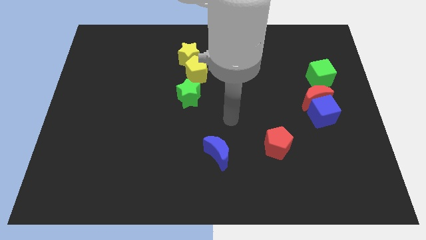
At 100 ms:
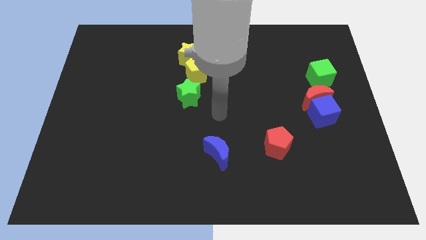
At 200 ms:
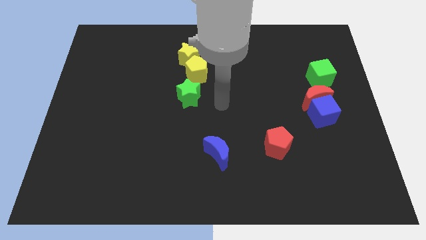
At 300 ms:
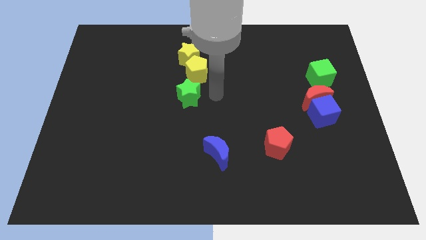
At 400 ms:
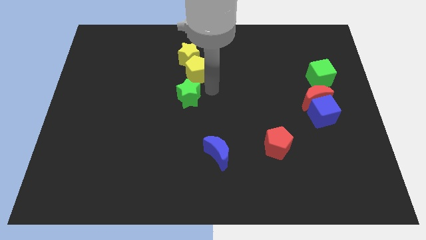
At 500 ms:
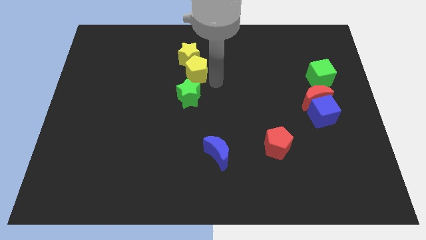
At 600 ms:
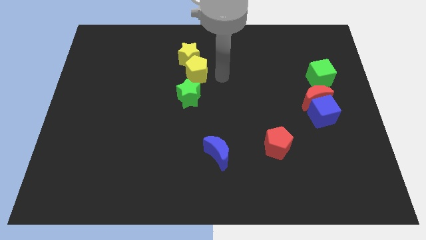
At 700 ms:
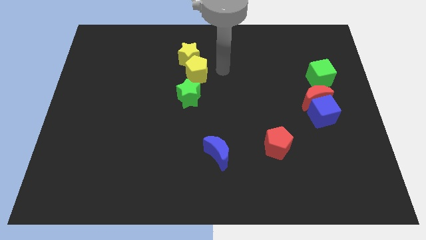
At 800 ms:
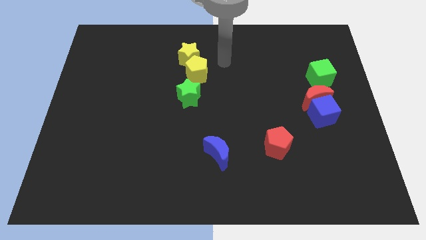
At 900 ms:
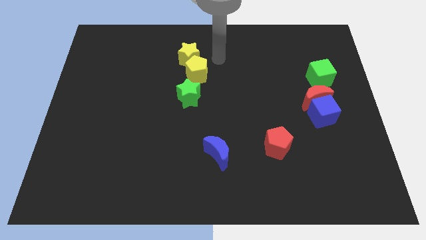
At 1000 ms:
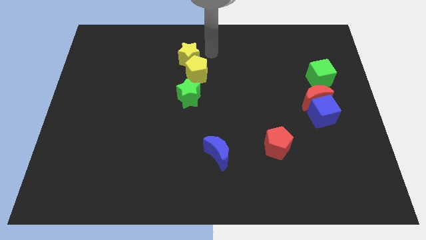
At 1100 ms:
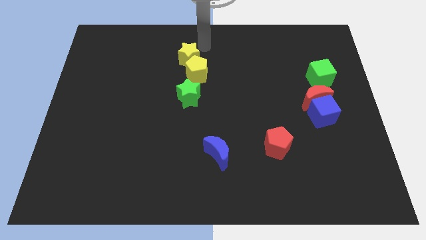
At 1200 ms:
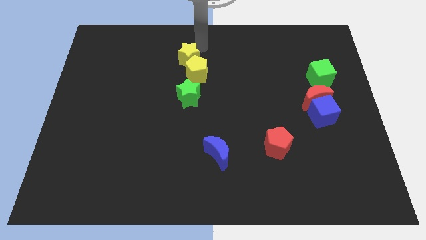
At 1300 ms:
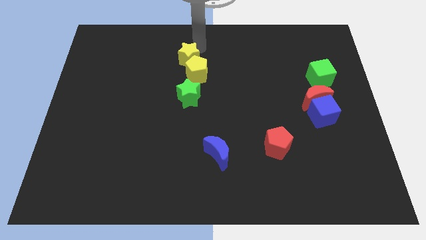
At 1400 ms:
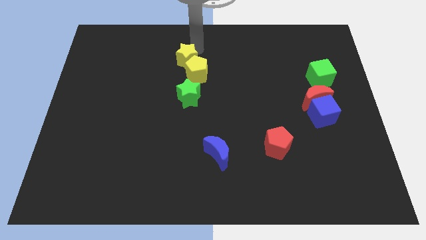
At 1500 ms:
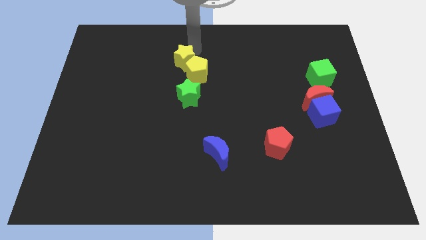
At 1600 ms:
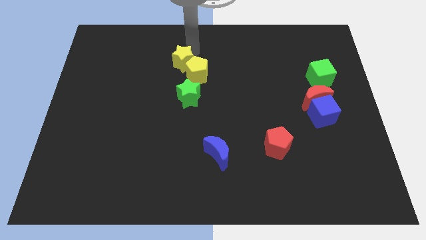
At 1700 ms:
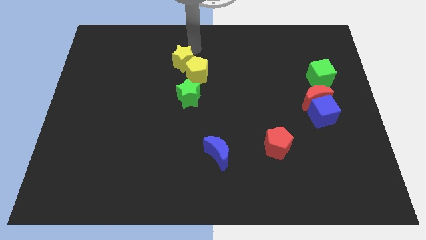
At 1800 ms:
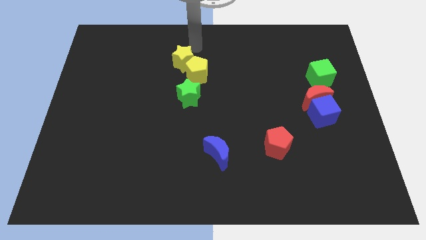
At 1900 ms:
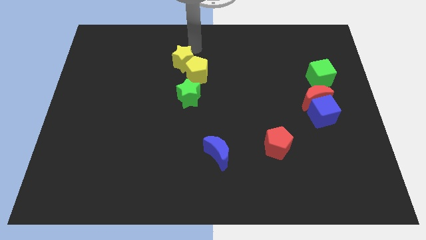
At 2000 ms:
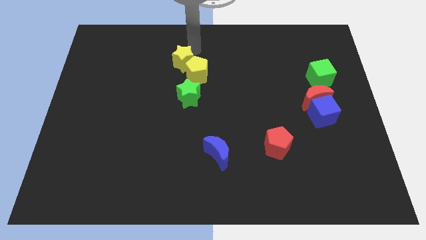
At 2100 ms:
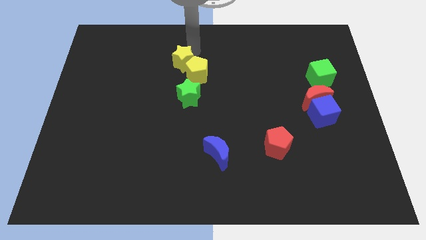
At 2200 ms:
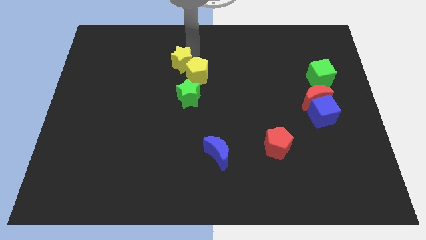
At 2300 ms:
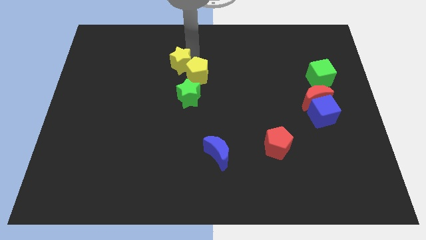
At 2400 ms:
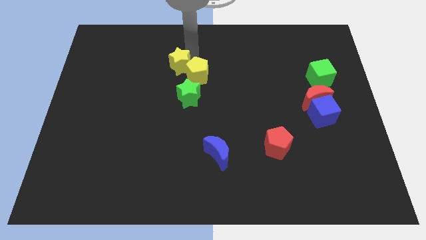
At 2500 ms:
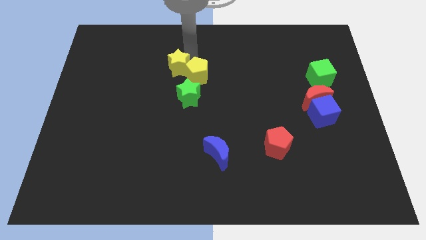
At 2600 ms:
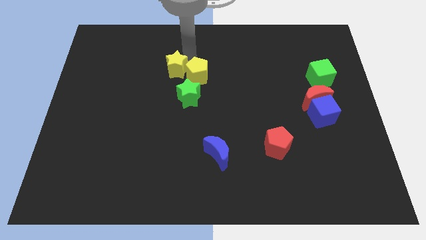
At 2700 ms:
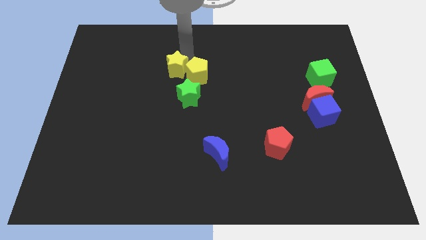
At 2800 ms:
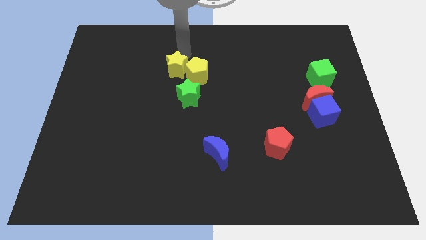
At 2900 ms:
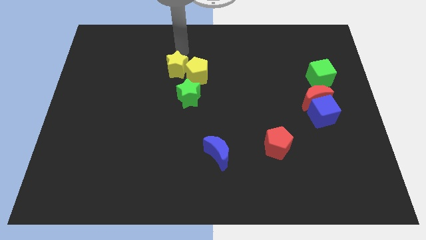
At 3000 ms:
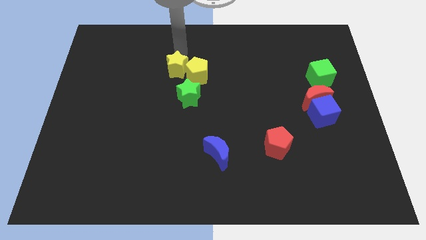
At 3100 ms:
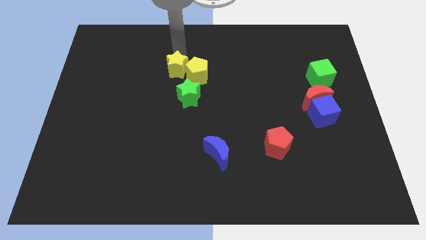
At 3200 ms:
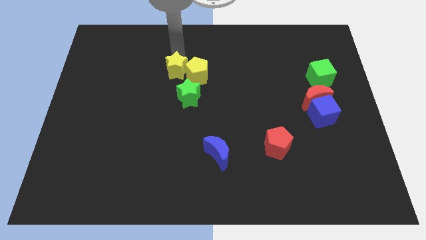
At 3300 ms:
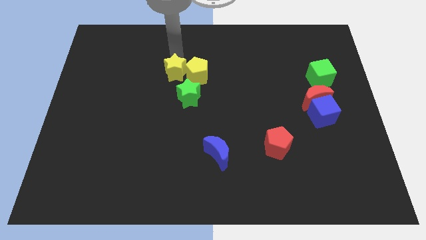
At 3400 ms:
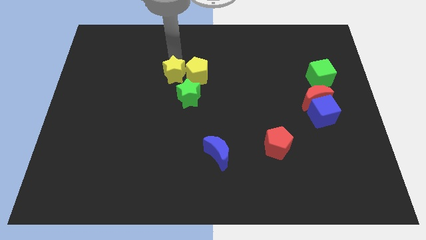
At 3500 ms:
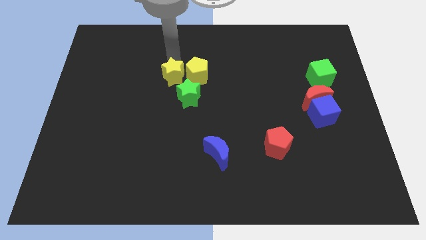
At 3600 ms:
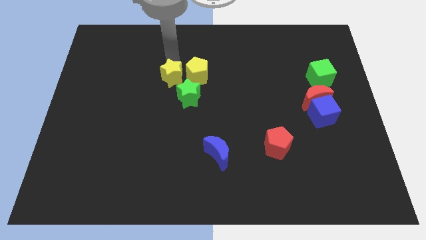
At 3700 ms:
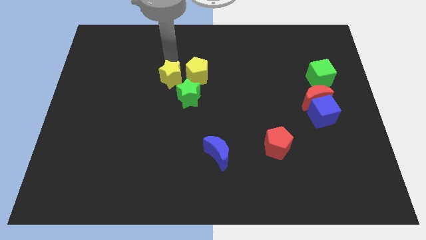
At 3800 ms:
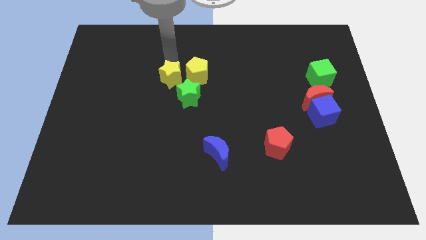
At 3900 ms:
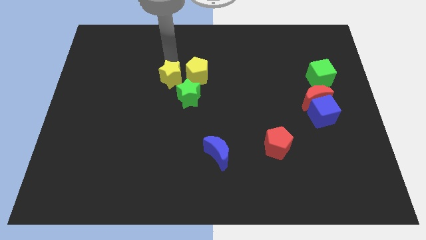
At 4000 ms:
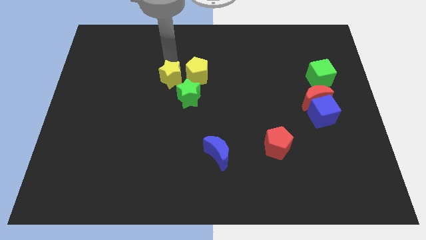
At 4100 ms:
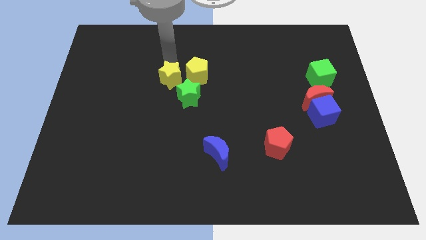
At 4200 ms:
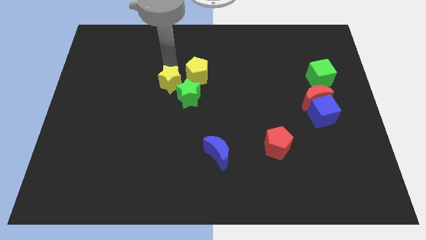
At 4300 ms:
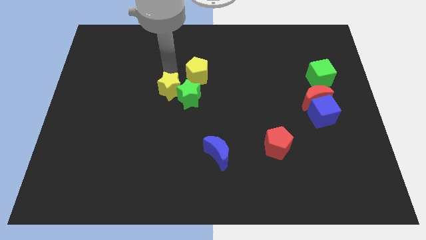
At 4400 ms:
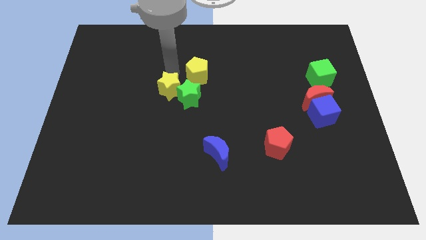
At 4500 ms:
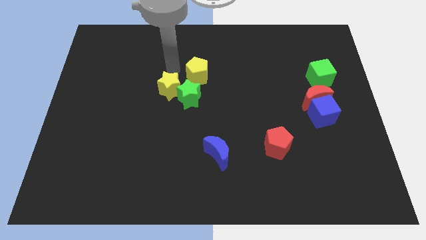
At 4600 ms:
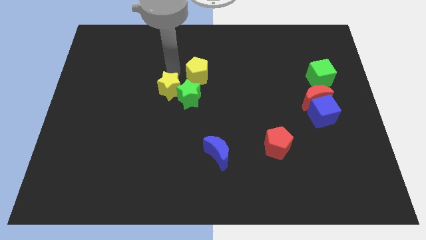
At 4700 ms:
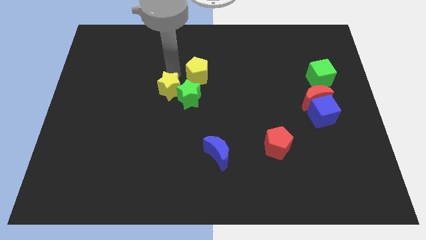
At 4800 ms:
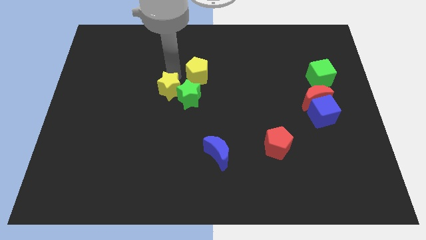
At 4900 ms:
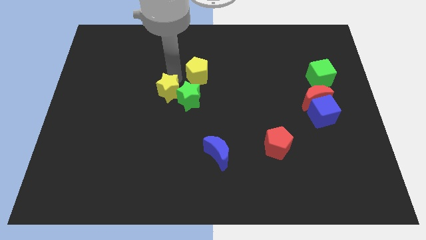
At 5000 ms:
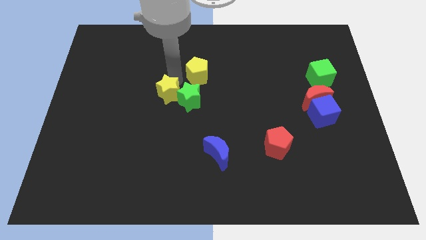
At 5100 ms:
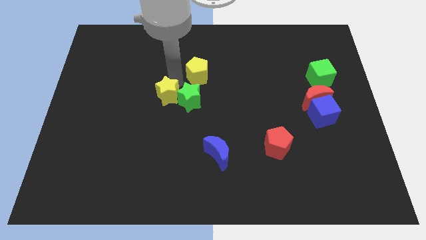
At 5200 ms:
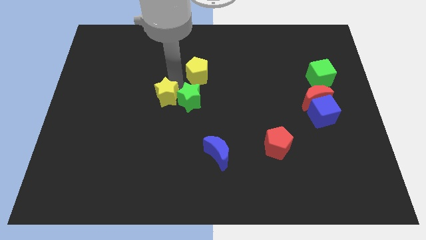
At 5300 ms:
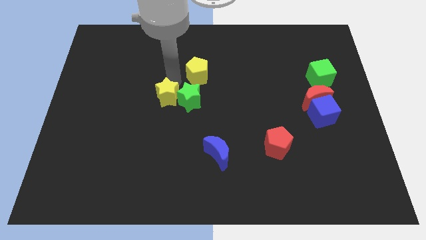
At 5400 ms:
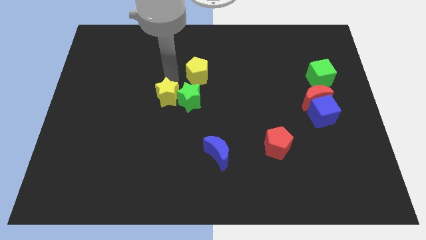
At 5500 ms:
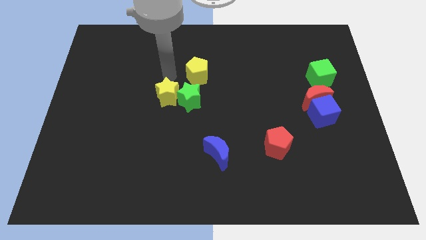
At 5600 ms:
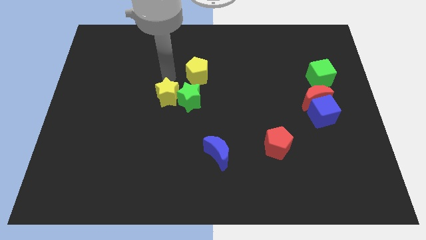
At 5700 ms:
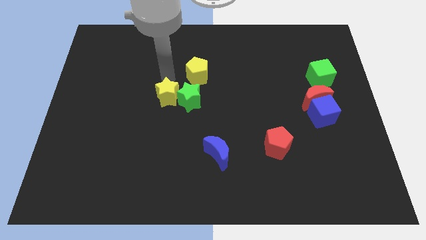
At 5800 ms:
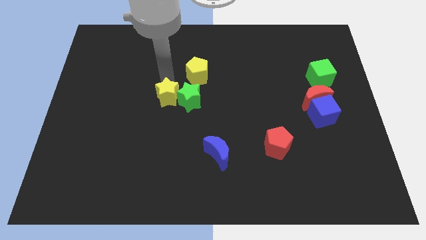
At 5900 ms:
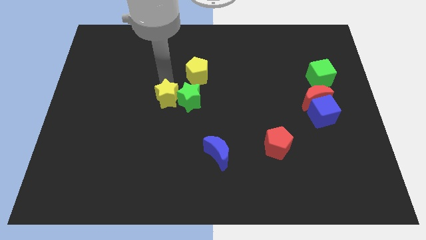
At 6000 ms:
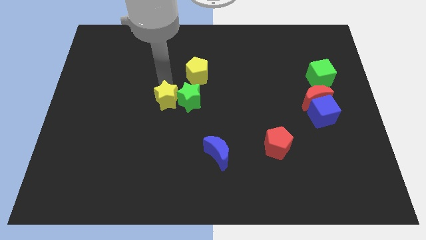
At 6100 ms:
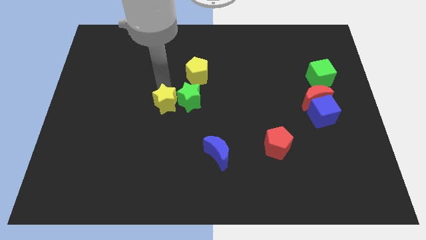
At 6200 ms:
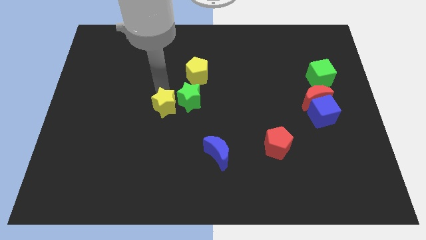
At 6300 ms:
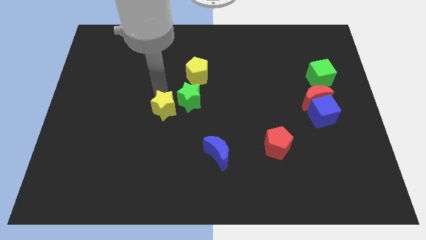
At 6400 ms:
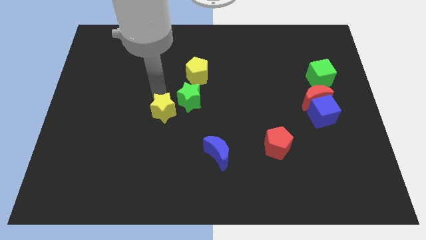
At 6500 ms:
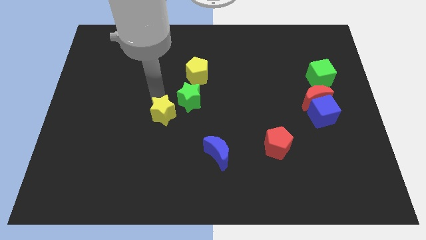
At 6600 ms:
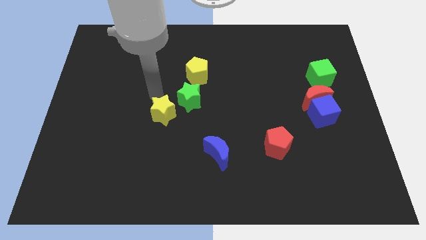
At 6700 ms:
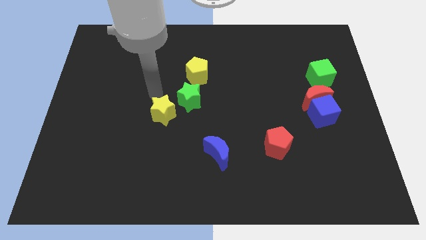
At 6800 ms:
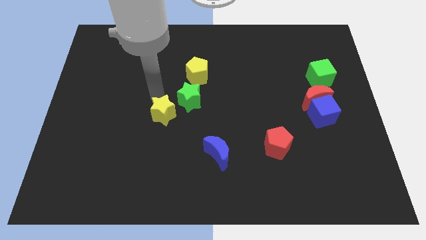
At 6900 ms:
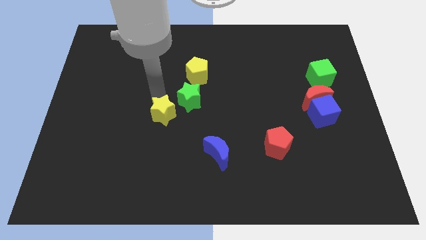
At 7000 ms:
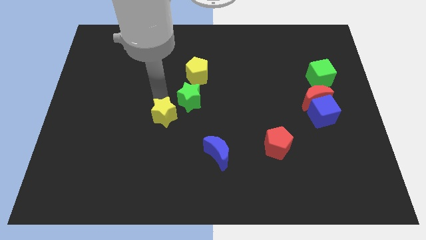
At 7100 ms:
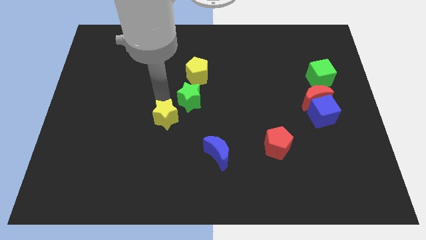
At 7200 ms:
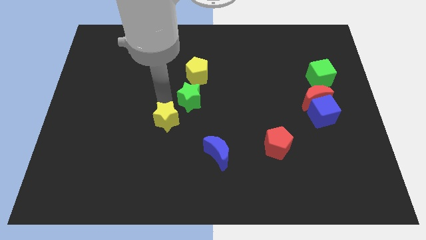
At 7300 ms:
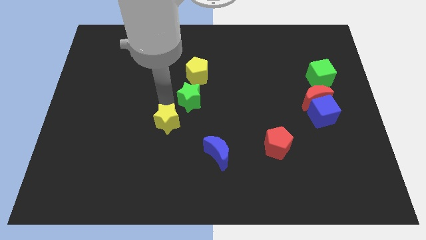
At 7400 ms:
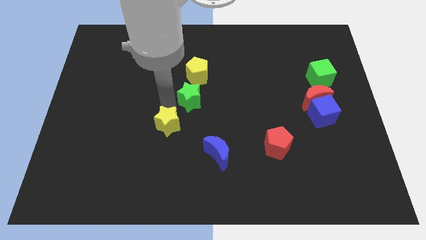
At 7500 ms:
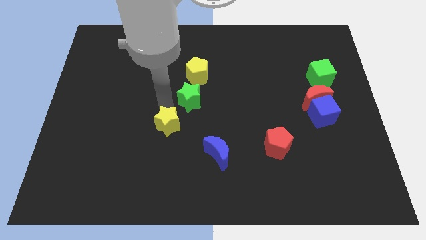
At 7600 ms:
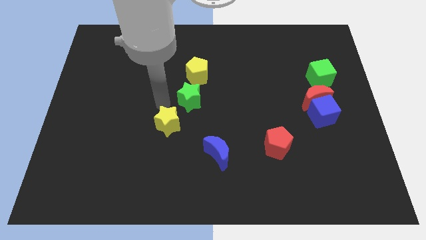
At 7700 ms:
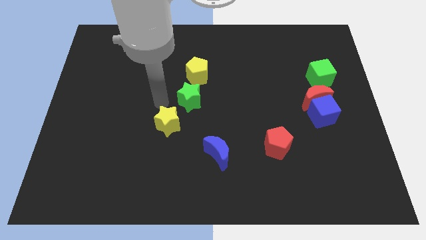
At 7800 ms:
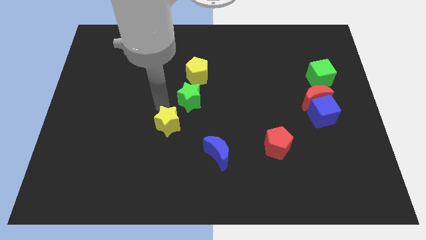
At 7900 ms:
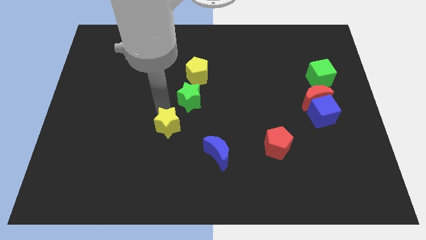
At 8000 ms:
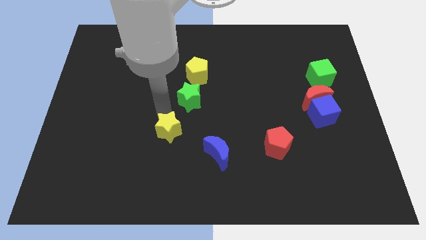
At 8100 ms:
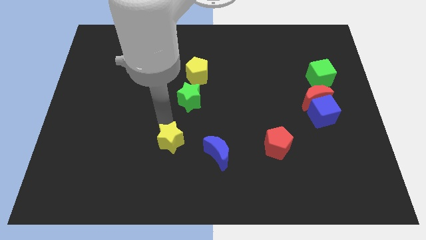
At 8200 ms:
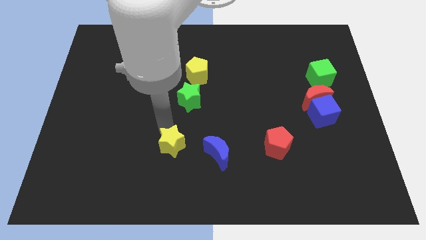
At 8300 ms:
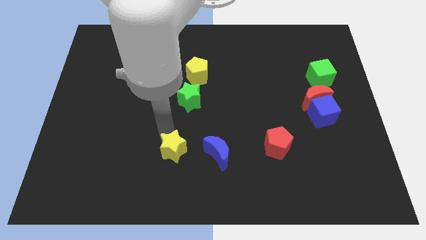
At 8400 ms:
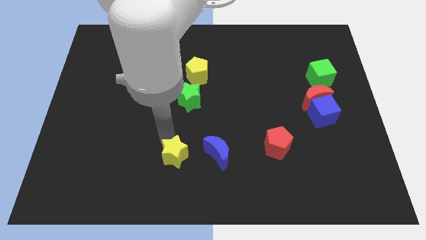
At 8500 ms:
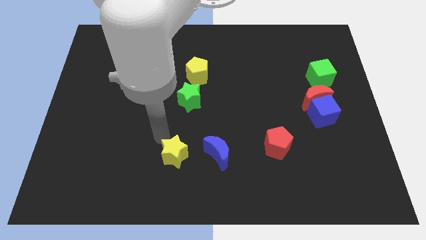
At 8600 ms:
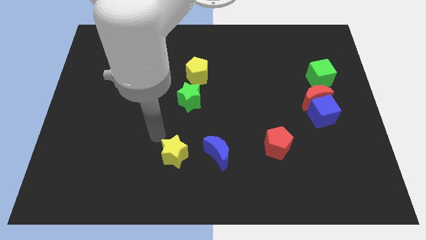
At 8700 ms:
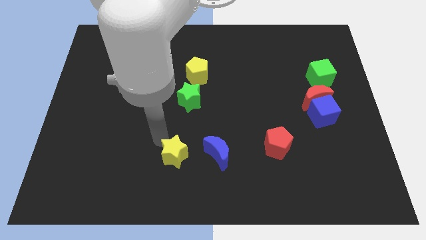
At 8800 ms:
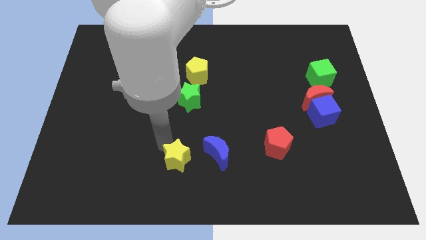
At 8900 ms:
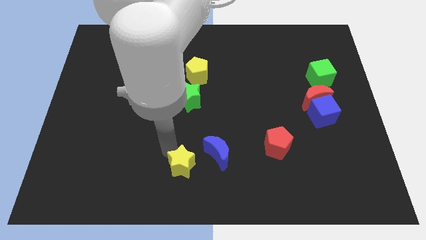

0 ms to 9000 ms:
push the yellow star to the bottom side
